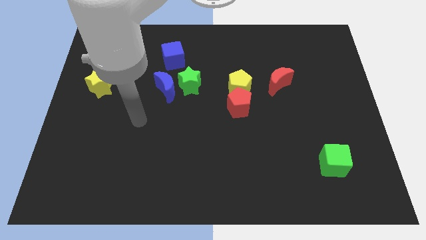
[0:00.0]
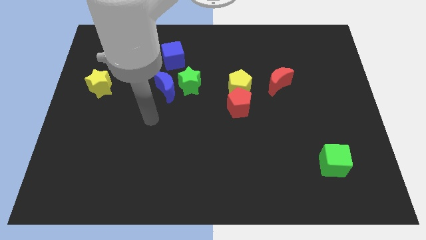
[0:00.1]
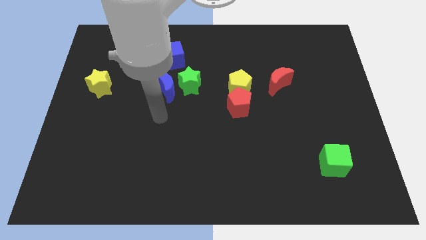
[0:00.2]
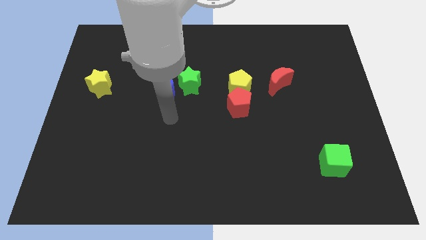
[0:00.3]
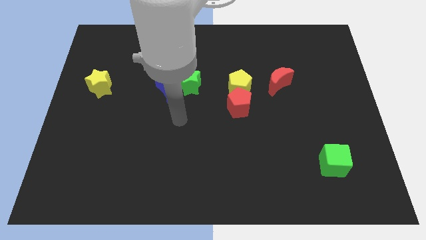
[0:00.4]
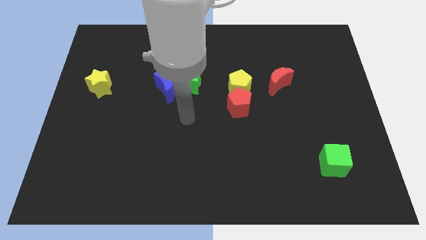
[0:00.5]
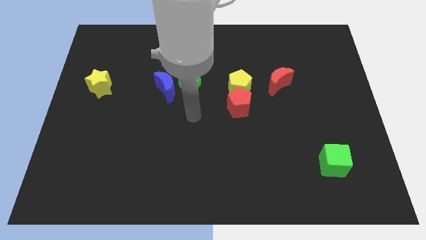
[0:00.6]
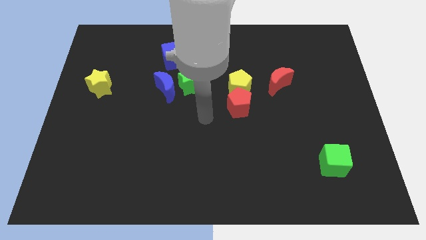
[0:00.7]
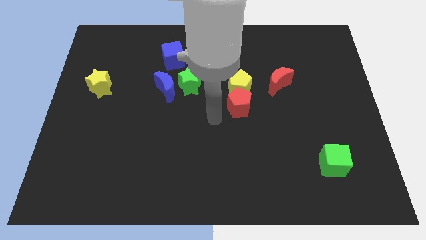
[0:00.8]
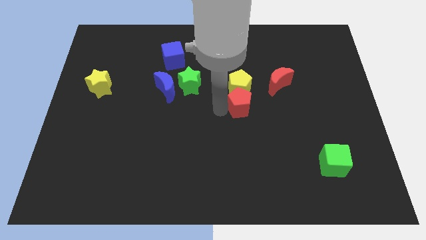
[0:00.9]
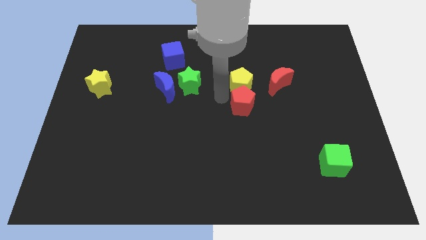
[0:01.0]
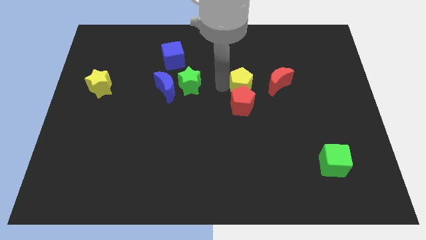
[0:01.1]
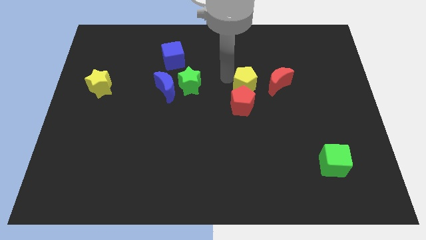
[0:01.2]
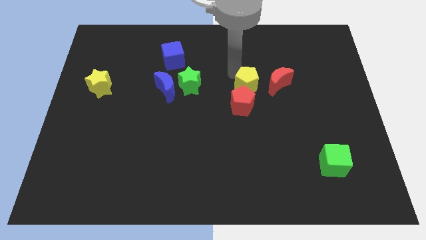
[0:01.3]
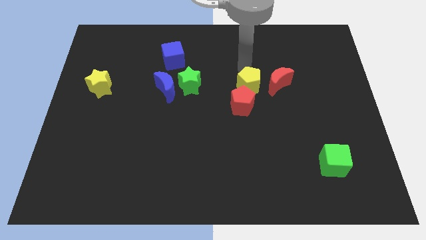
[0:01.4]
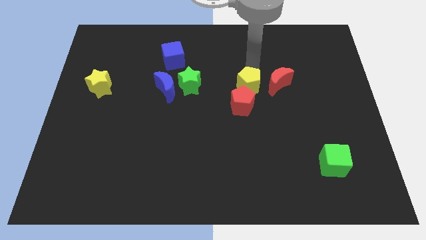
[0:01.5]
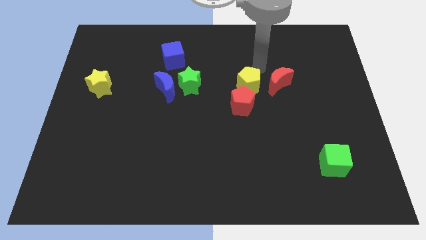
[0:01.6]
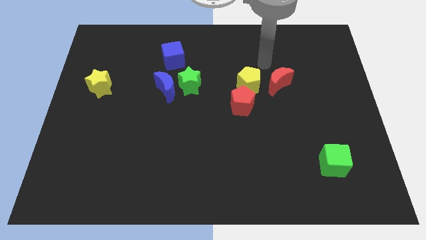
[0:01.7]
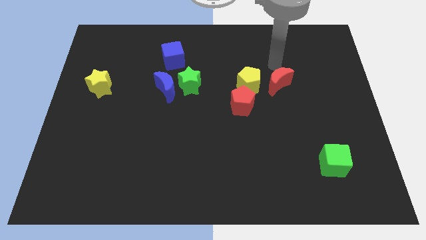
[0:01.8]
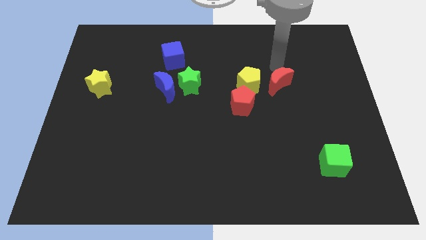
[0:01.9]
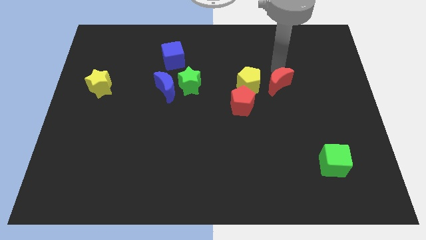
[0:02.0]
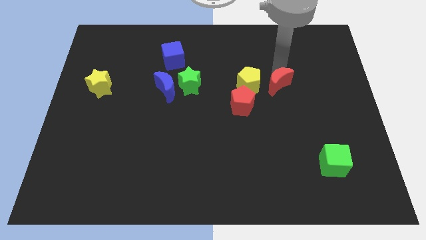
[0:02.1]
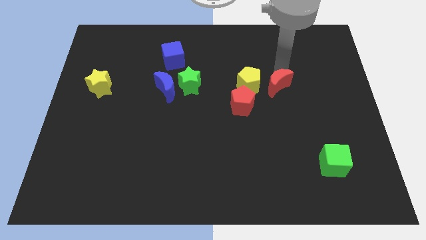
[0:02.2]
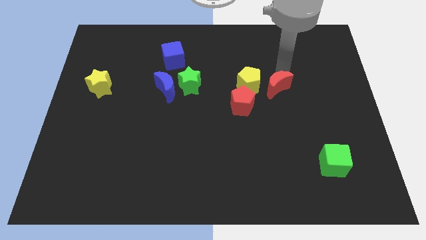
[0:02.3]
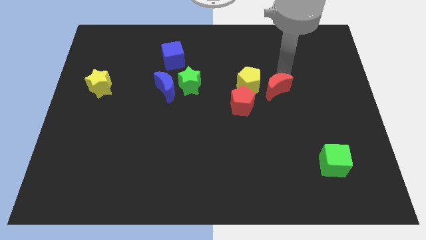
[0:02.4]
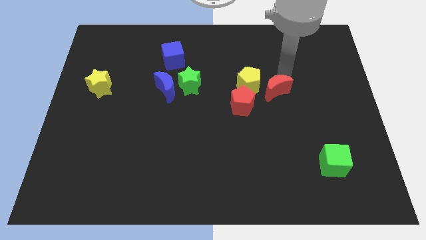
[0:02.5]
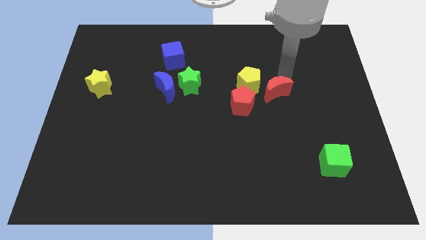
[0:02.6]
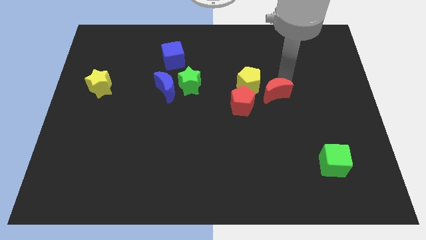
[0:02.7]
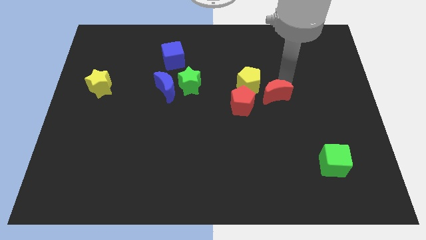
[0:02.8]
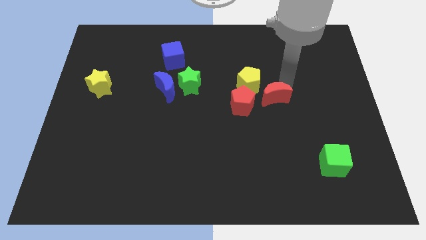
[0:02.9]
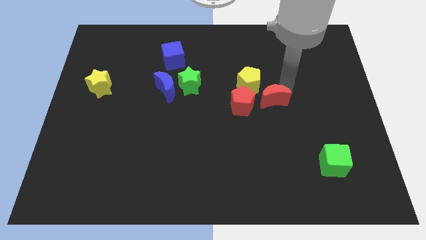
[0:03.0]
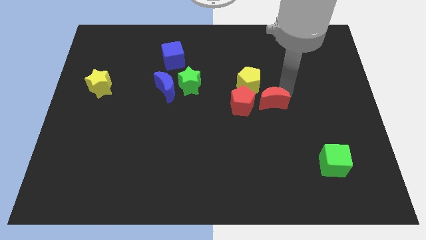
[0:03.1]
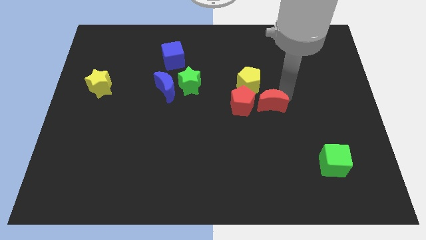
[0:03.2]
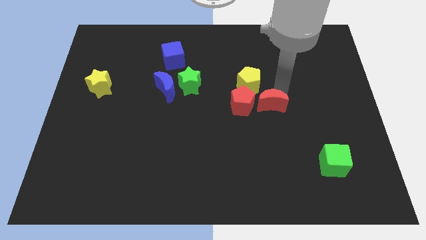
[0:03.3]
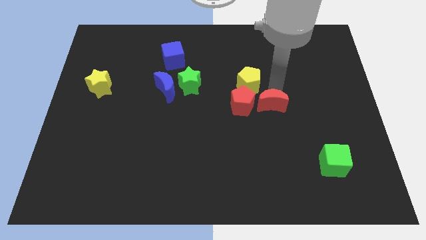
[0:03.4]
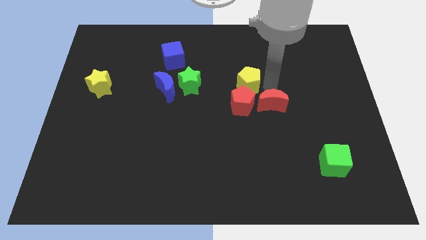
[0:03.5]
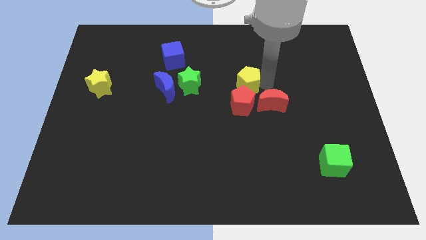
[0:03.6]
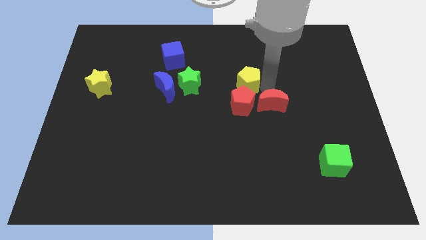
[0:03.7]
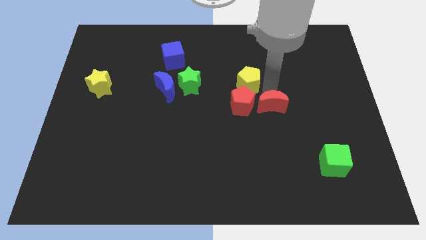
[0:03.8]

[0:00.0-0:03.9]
slide the red moon a little down

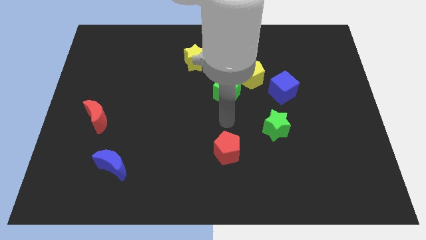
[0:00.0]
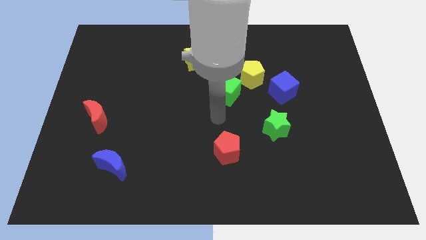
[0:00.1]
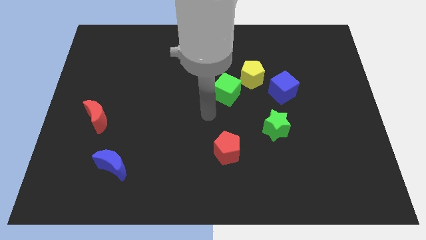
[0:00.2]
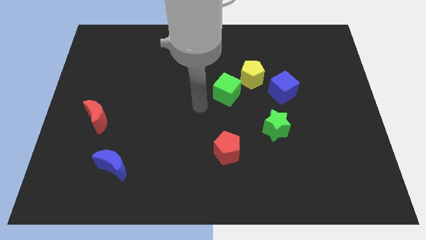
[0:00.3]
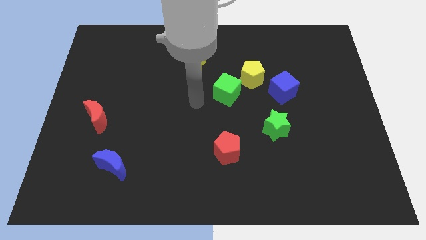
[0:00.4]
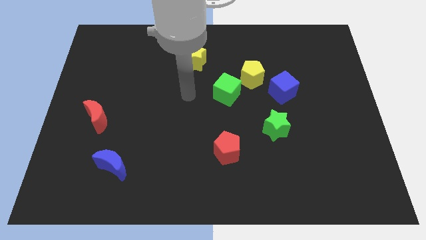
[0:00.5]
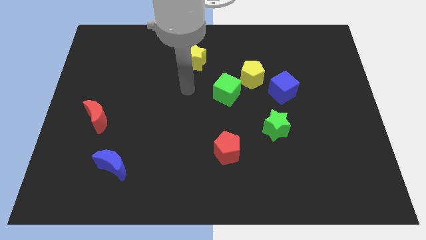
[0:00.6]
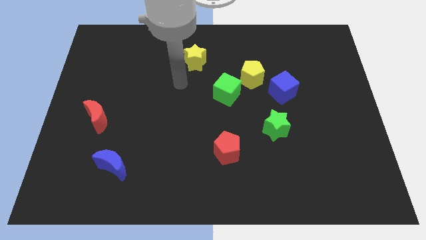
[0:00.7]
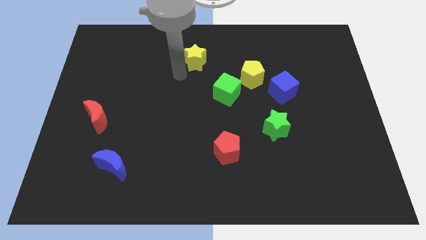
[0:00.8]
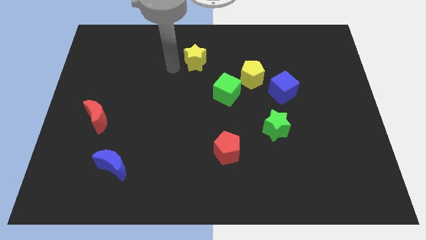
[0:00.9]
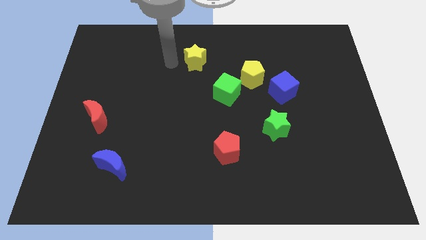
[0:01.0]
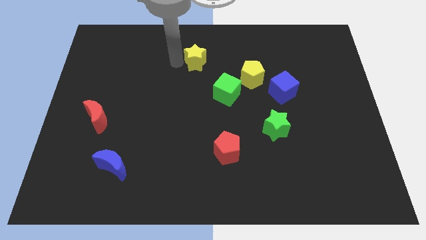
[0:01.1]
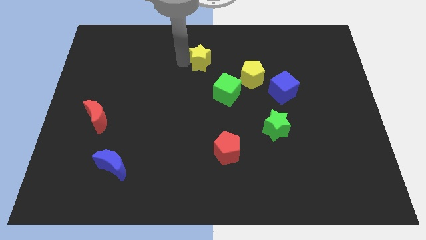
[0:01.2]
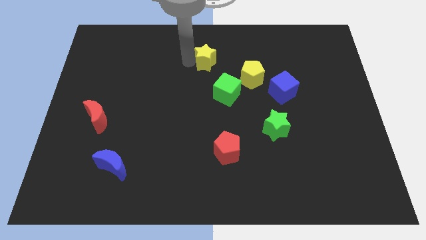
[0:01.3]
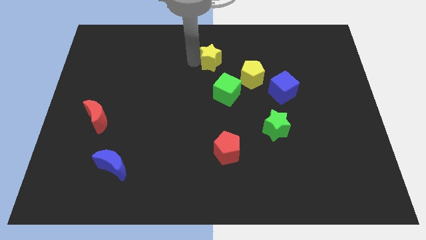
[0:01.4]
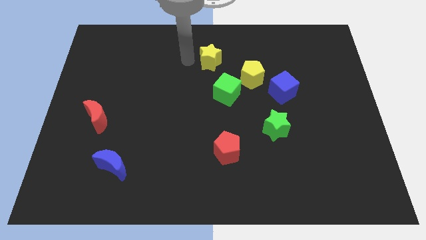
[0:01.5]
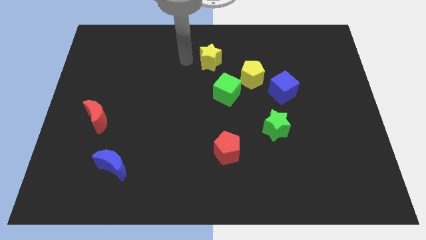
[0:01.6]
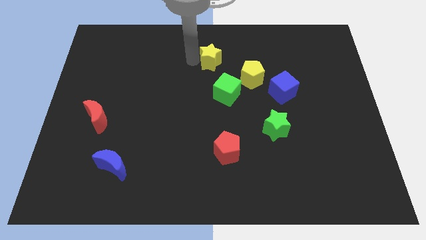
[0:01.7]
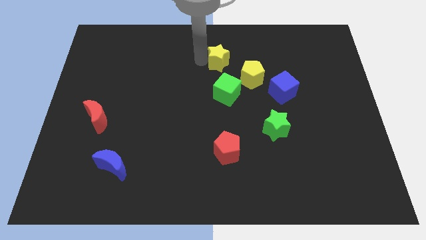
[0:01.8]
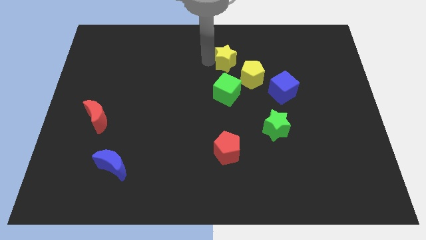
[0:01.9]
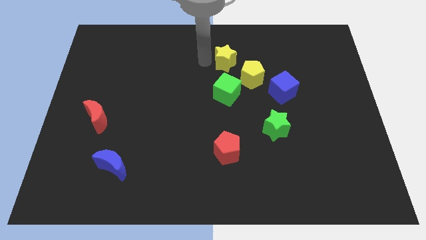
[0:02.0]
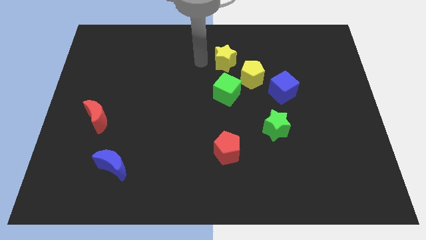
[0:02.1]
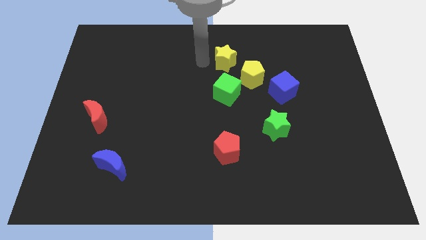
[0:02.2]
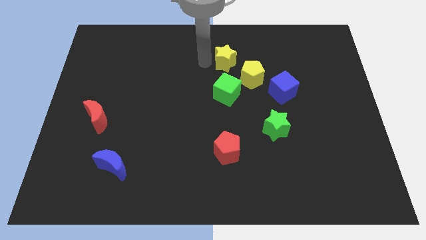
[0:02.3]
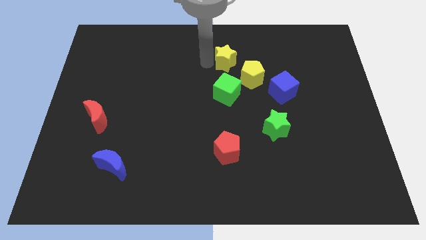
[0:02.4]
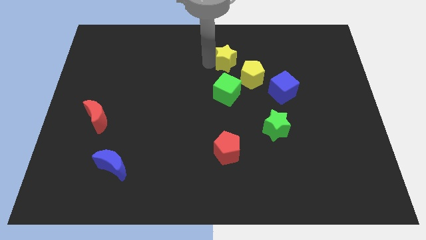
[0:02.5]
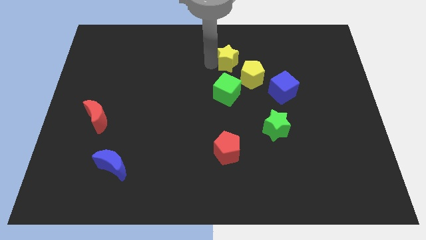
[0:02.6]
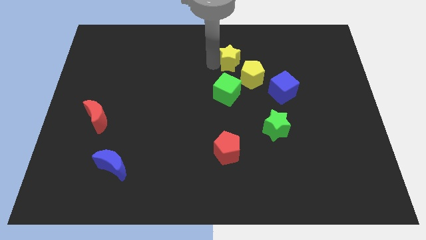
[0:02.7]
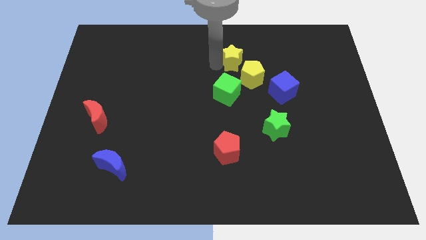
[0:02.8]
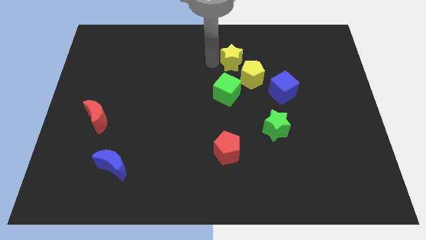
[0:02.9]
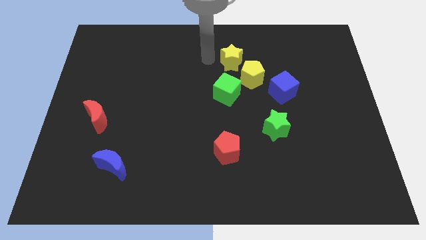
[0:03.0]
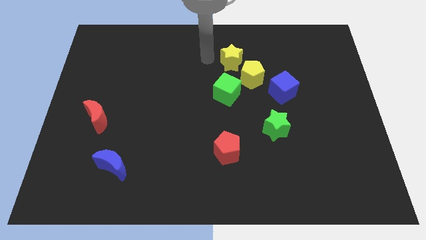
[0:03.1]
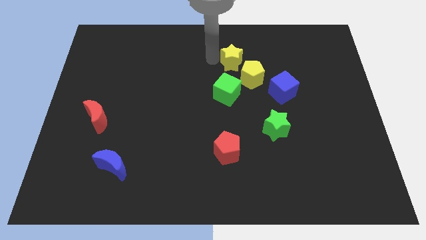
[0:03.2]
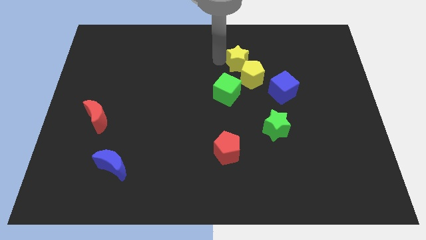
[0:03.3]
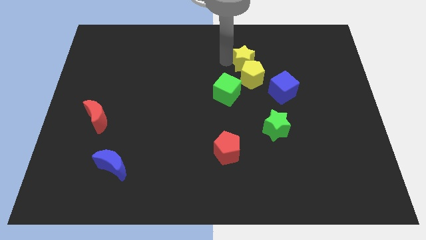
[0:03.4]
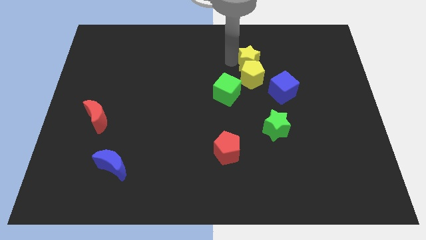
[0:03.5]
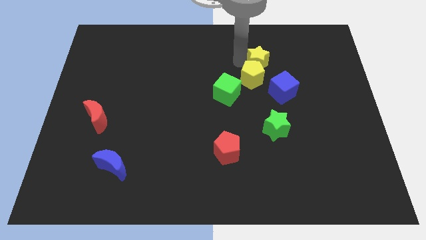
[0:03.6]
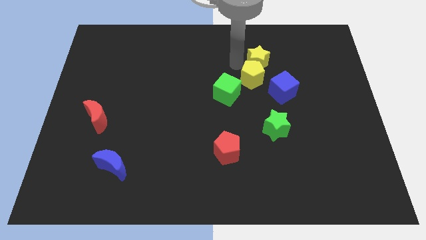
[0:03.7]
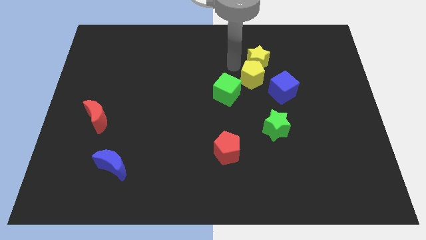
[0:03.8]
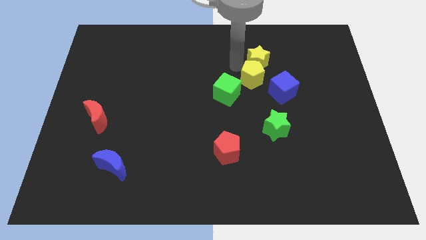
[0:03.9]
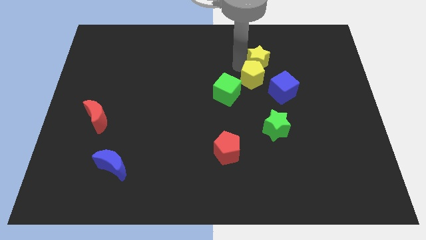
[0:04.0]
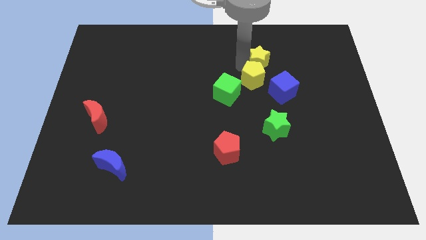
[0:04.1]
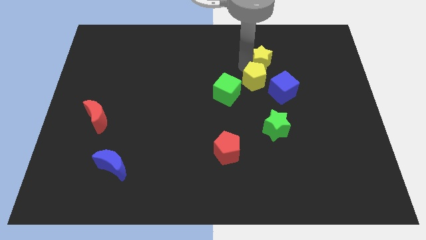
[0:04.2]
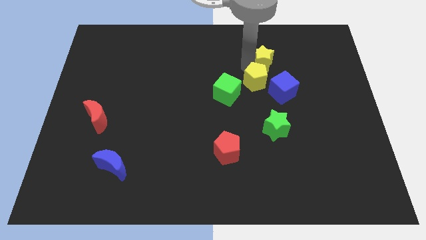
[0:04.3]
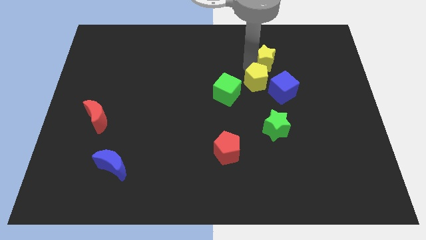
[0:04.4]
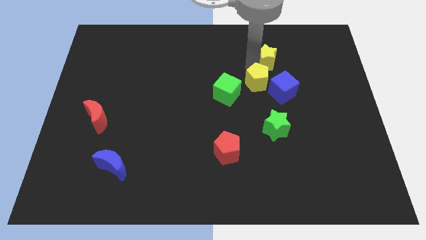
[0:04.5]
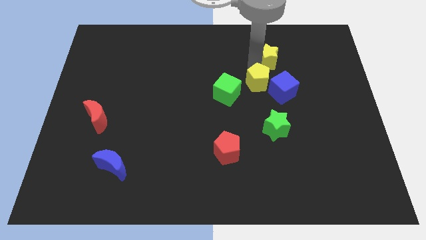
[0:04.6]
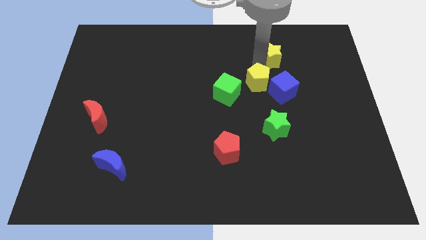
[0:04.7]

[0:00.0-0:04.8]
move the yellow star to the right
